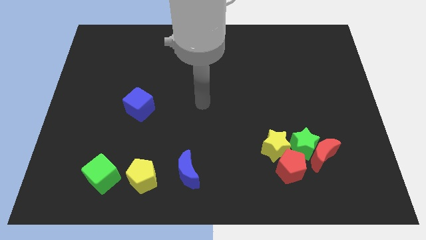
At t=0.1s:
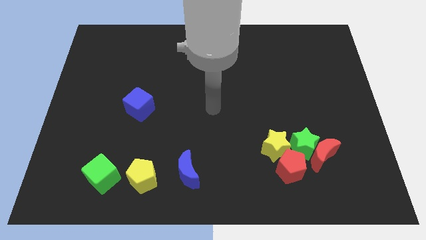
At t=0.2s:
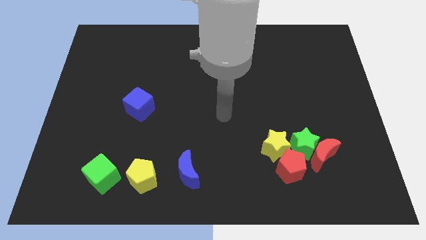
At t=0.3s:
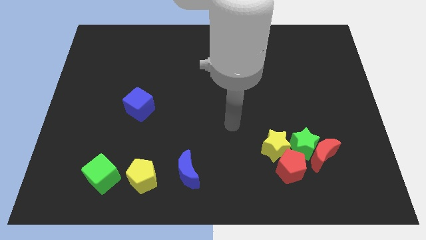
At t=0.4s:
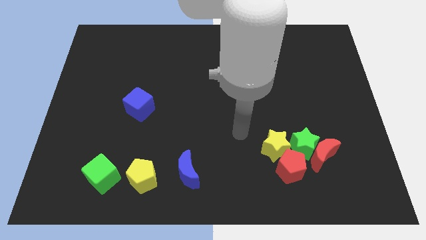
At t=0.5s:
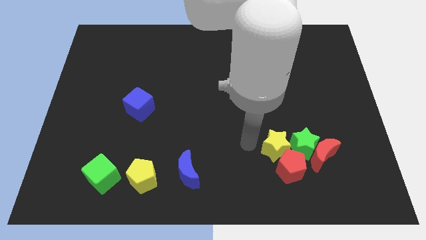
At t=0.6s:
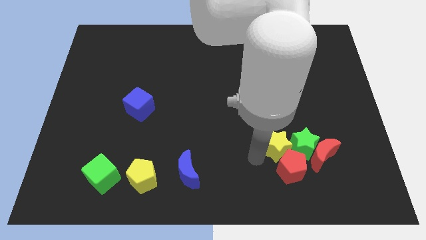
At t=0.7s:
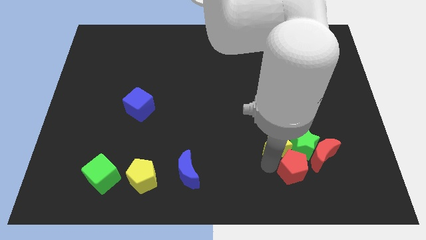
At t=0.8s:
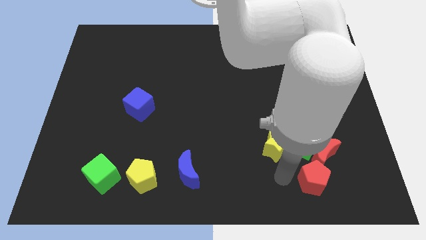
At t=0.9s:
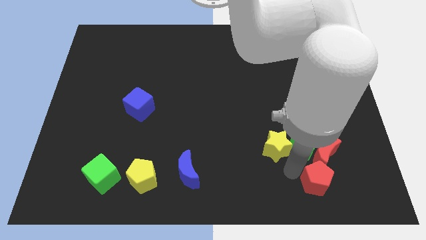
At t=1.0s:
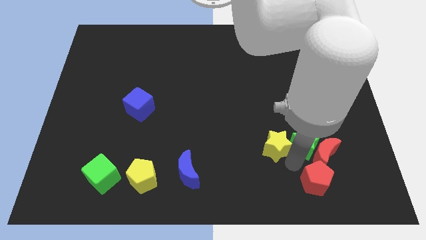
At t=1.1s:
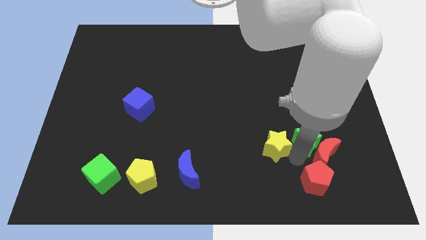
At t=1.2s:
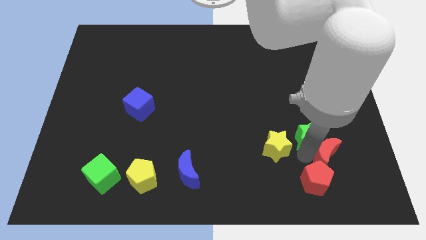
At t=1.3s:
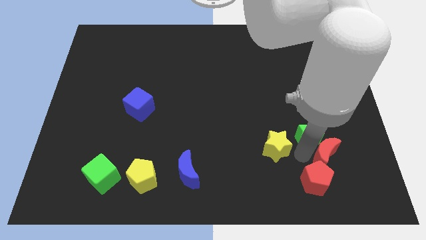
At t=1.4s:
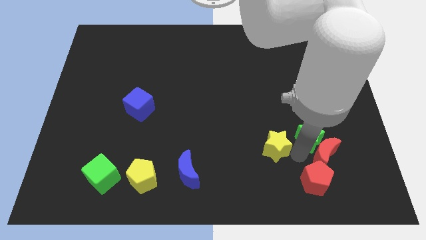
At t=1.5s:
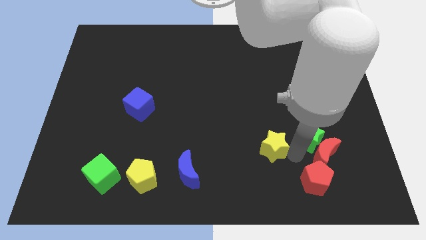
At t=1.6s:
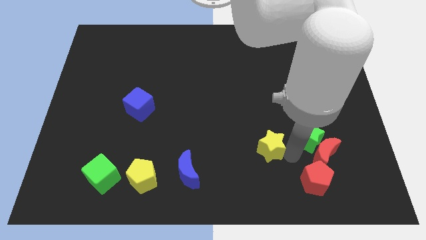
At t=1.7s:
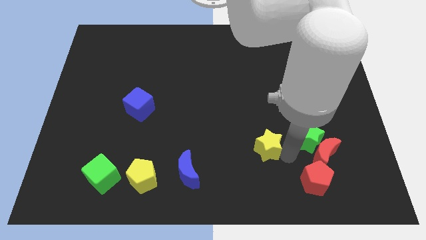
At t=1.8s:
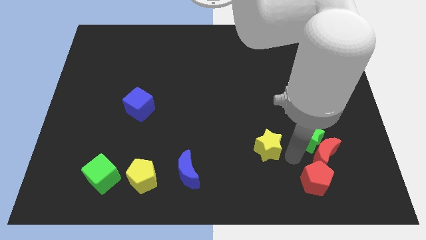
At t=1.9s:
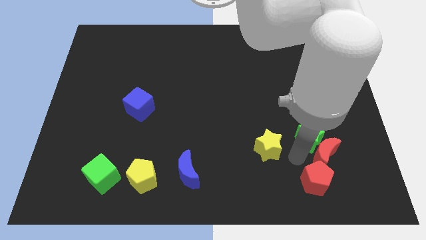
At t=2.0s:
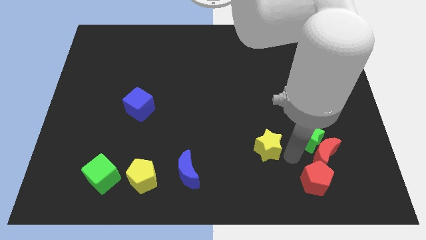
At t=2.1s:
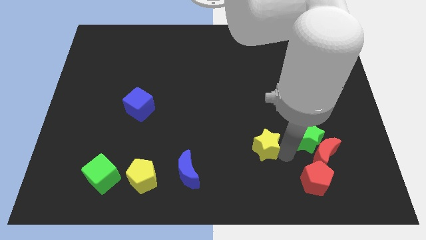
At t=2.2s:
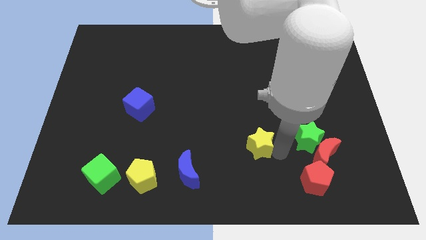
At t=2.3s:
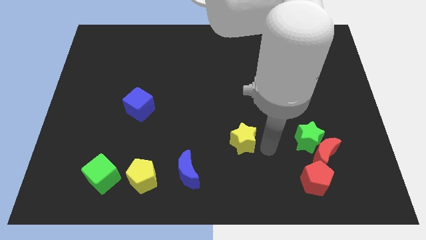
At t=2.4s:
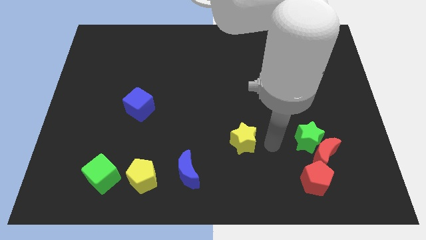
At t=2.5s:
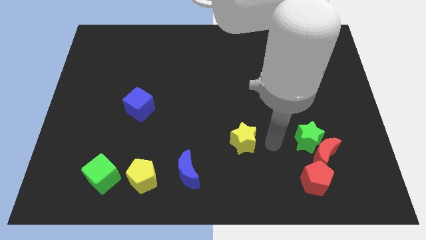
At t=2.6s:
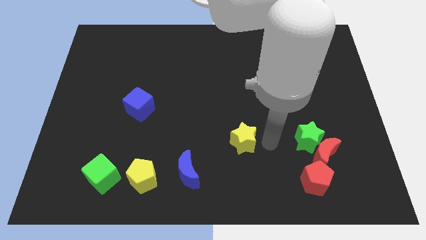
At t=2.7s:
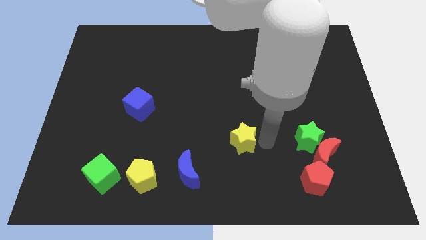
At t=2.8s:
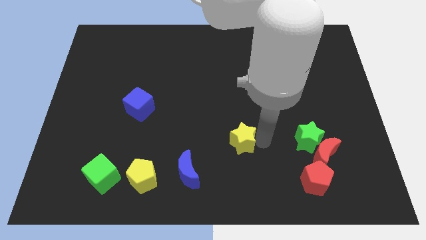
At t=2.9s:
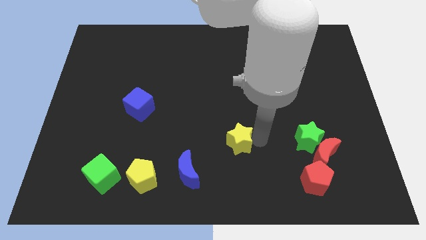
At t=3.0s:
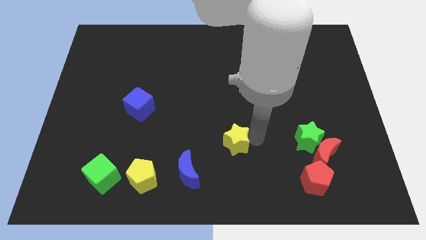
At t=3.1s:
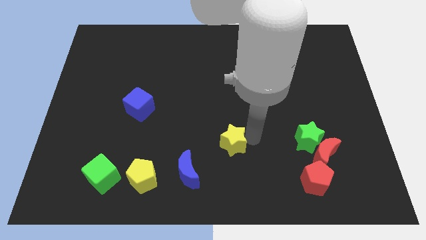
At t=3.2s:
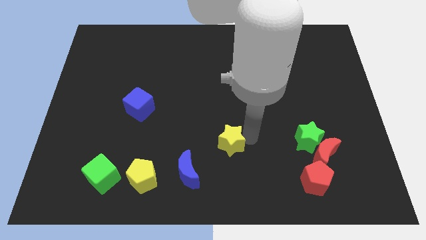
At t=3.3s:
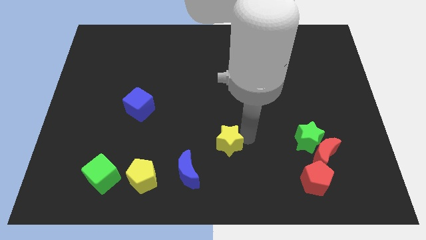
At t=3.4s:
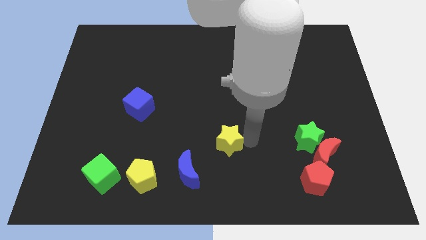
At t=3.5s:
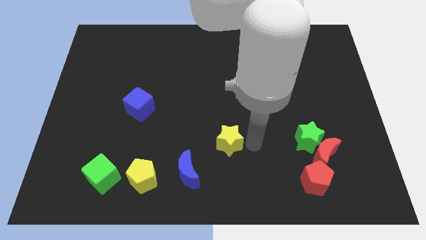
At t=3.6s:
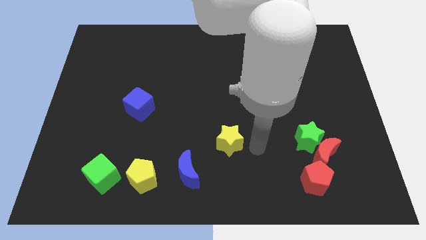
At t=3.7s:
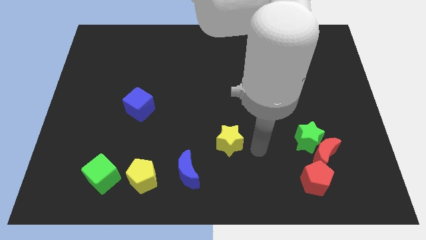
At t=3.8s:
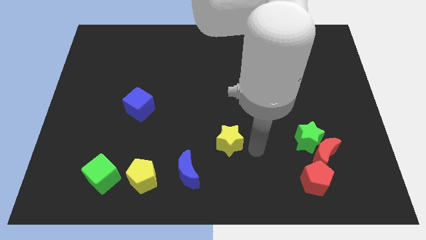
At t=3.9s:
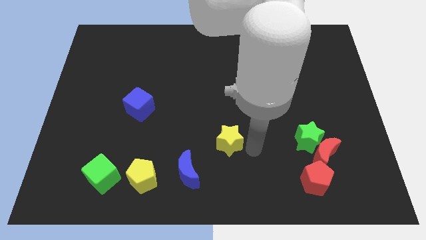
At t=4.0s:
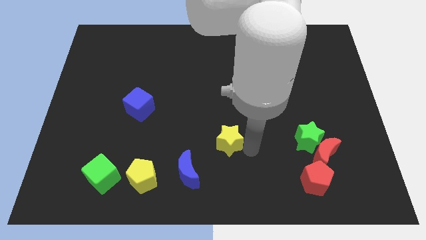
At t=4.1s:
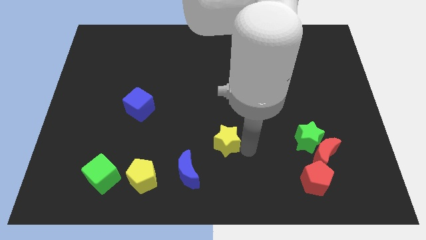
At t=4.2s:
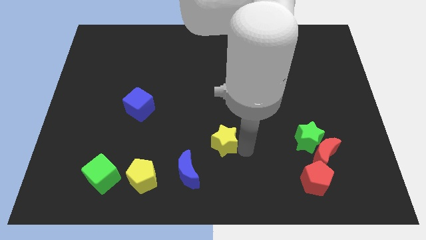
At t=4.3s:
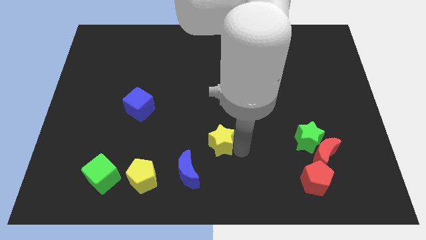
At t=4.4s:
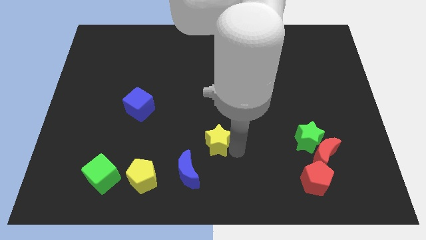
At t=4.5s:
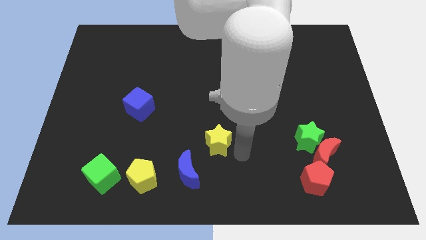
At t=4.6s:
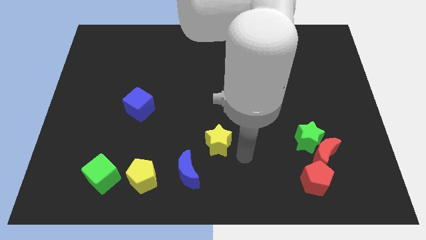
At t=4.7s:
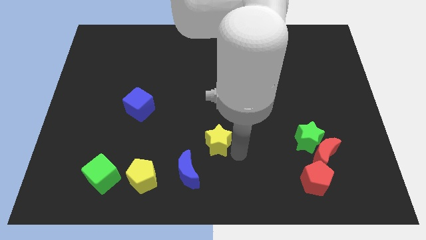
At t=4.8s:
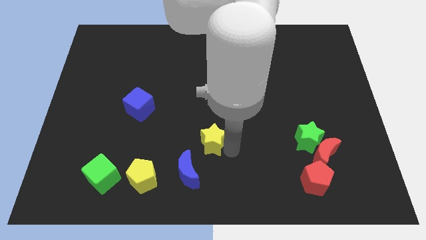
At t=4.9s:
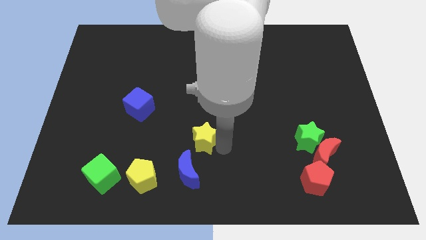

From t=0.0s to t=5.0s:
slide the yellow star to the top of the blue moon

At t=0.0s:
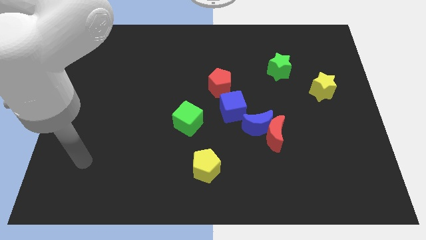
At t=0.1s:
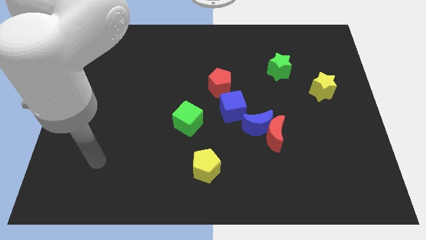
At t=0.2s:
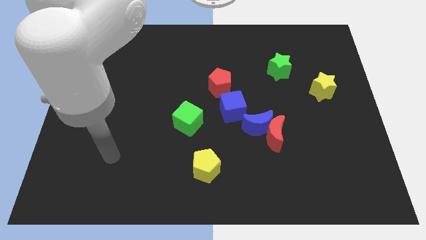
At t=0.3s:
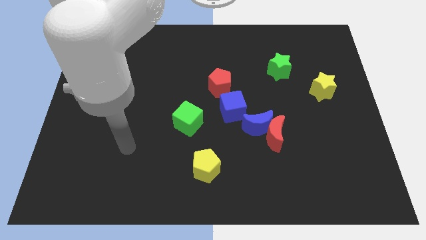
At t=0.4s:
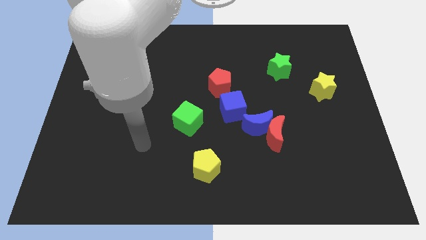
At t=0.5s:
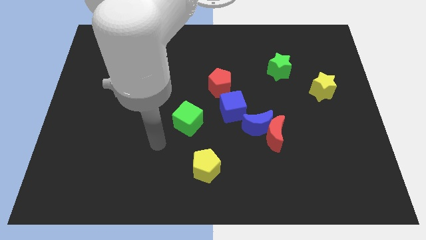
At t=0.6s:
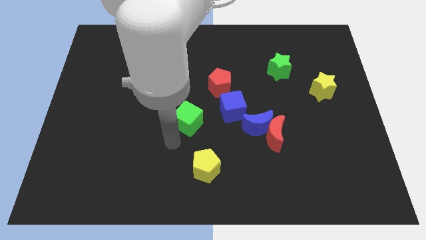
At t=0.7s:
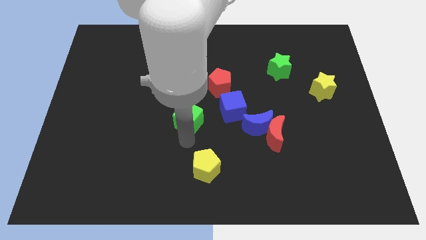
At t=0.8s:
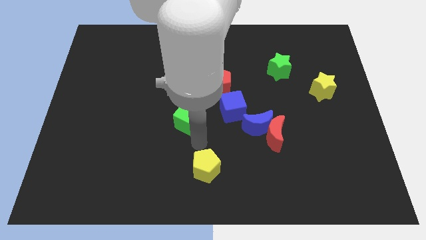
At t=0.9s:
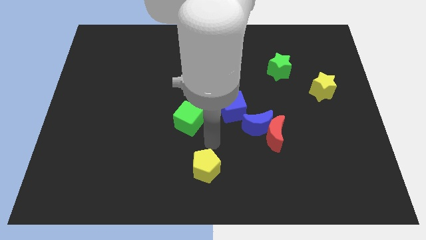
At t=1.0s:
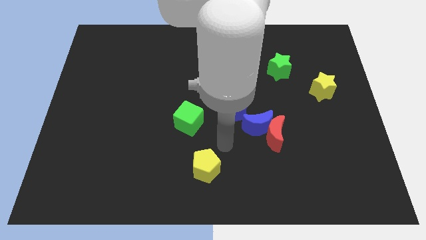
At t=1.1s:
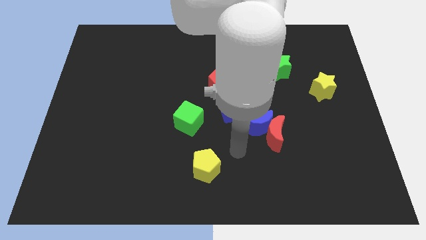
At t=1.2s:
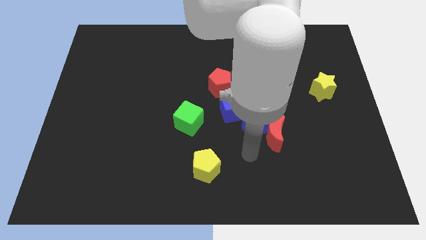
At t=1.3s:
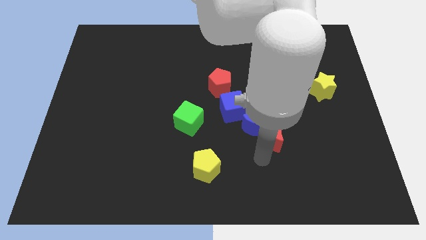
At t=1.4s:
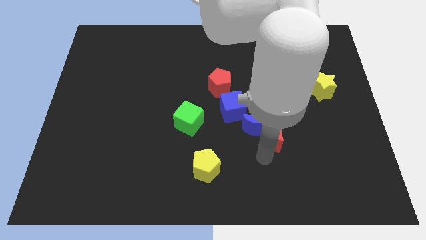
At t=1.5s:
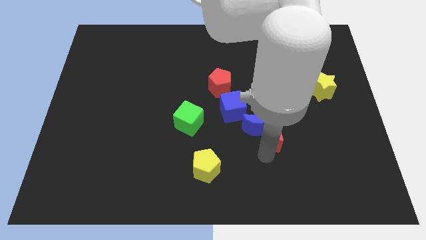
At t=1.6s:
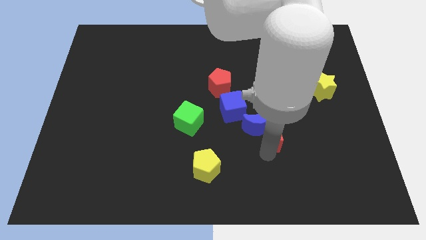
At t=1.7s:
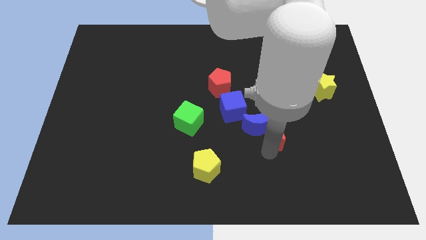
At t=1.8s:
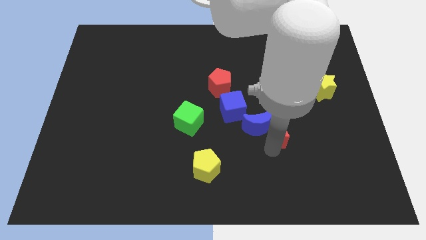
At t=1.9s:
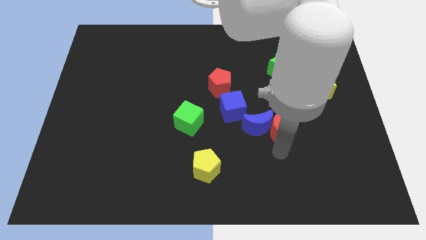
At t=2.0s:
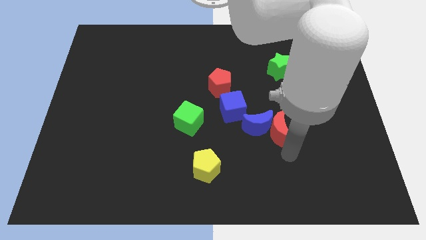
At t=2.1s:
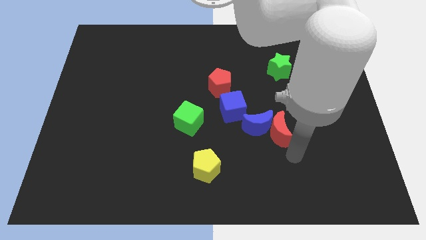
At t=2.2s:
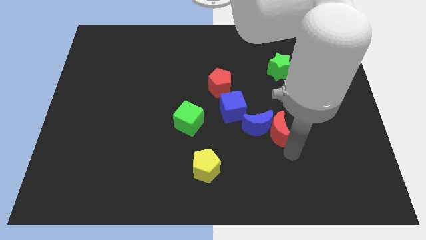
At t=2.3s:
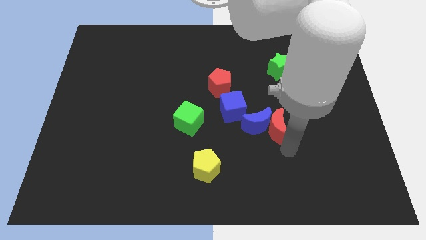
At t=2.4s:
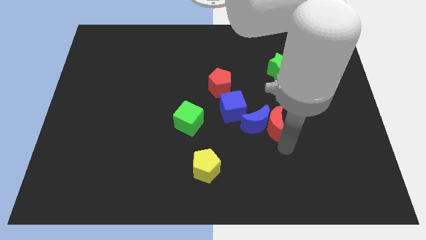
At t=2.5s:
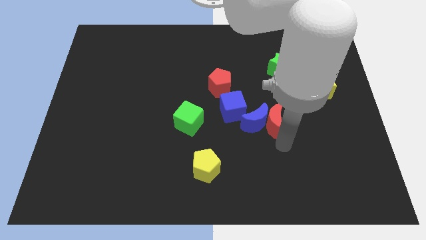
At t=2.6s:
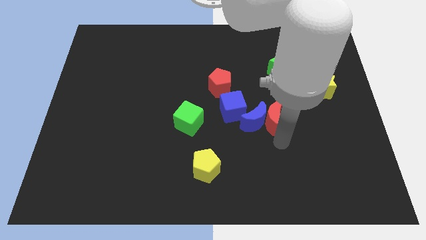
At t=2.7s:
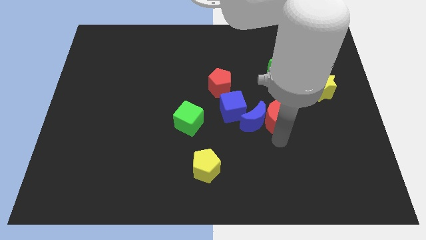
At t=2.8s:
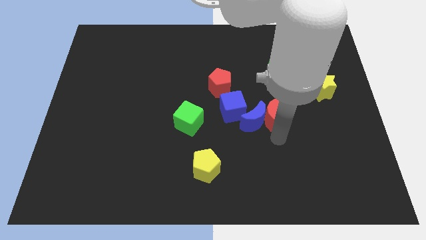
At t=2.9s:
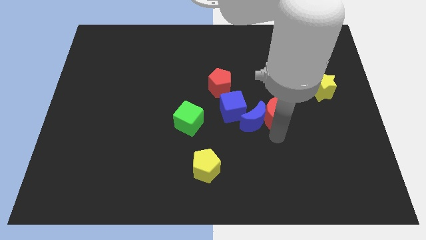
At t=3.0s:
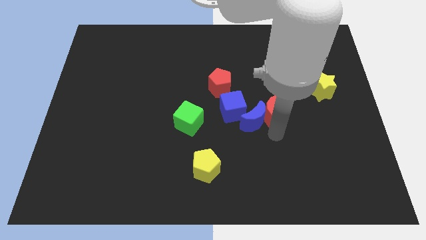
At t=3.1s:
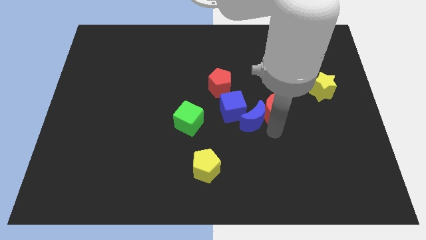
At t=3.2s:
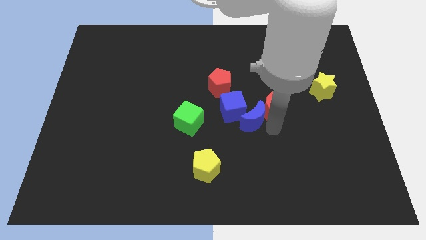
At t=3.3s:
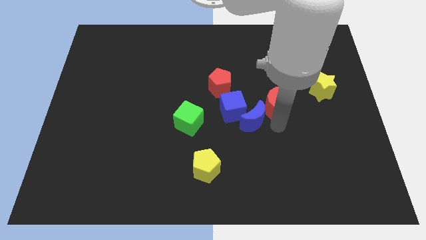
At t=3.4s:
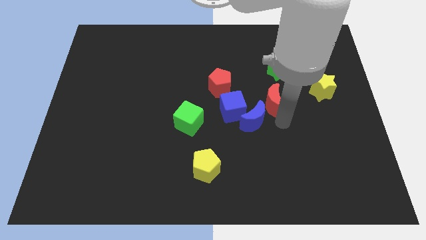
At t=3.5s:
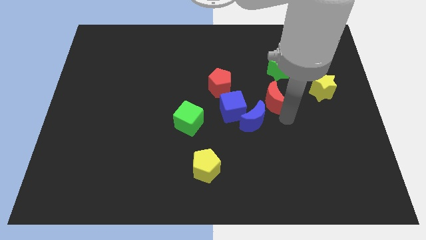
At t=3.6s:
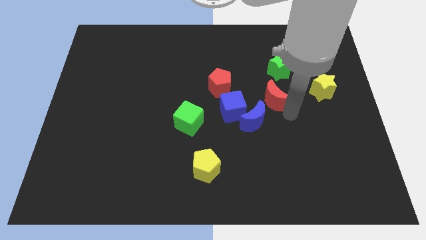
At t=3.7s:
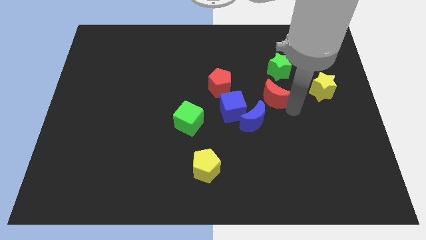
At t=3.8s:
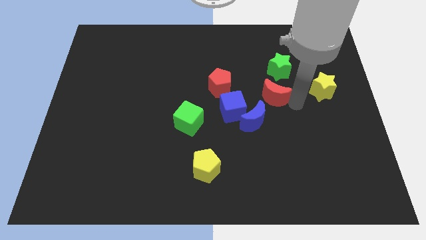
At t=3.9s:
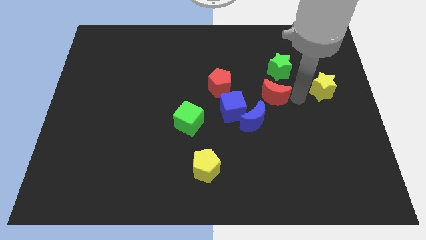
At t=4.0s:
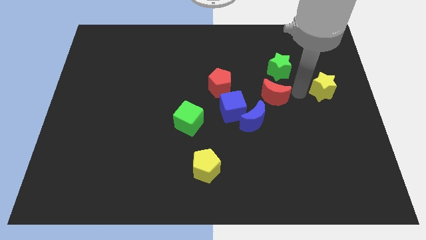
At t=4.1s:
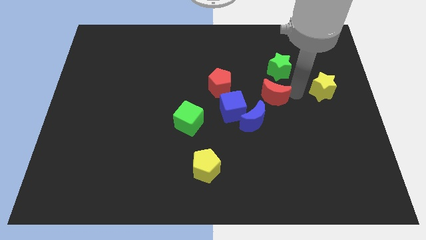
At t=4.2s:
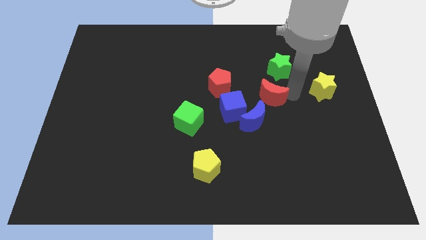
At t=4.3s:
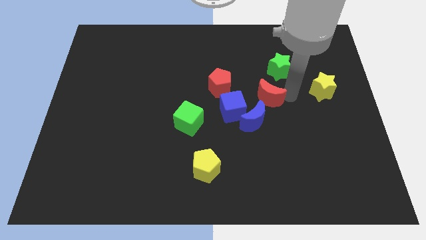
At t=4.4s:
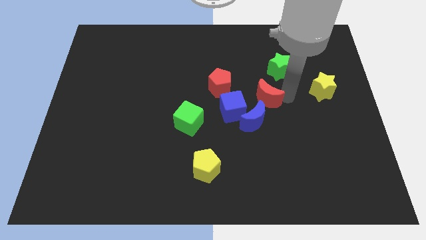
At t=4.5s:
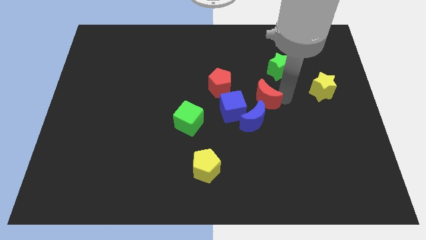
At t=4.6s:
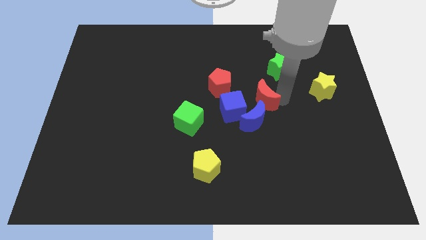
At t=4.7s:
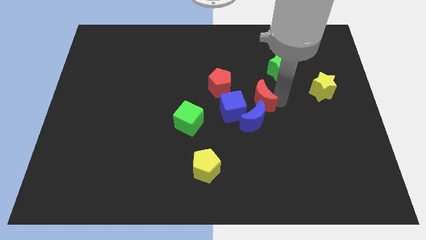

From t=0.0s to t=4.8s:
put the red moon to the bottom right of the red pentagon
